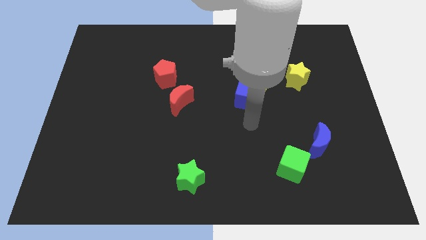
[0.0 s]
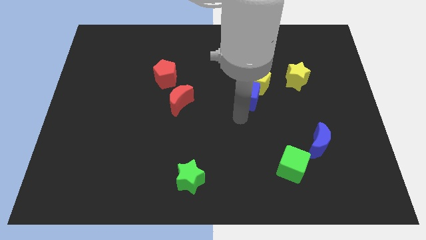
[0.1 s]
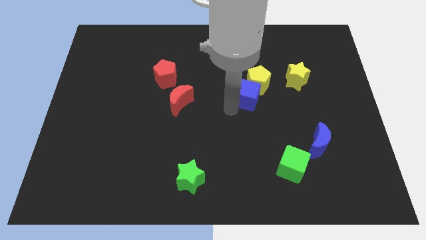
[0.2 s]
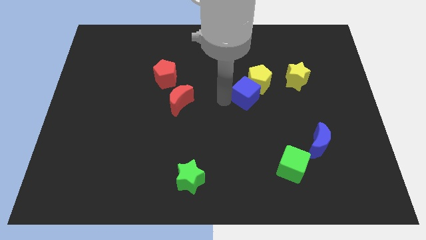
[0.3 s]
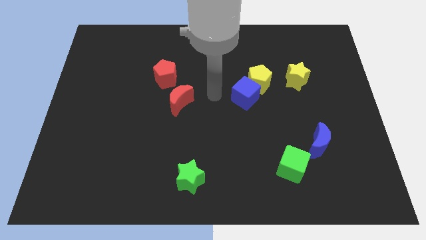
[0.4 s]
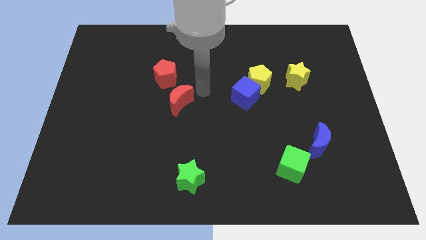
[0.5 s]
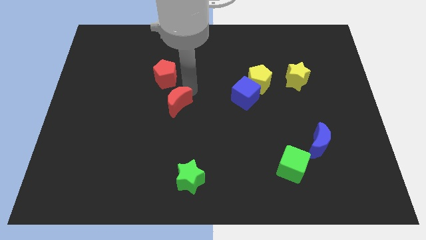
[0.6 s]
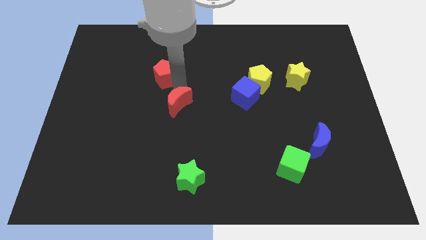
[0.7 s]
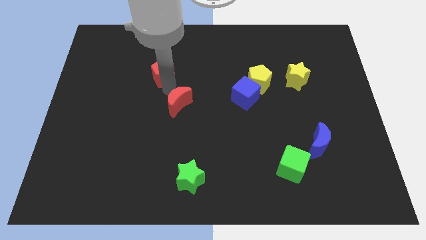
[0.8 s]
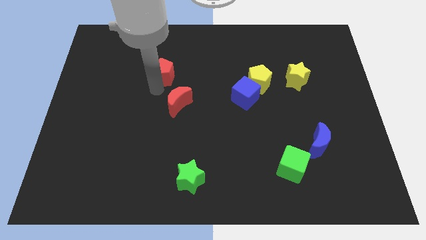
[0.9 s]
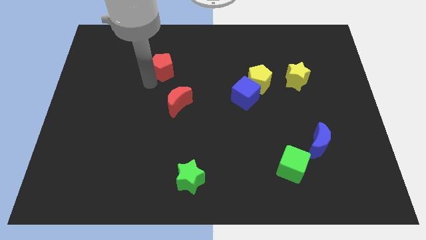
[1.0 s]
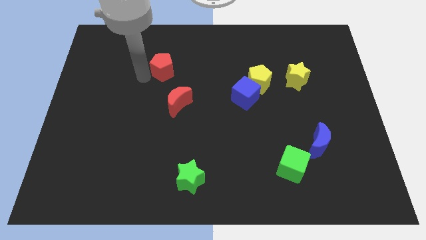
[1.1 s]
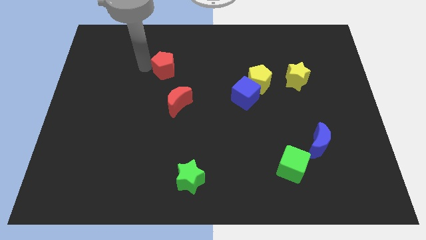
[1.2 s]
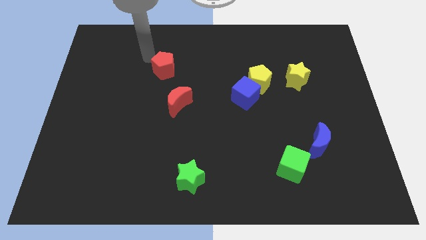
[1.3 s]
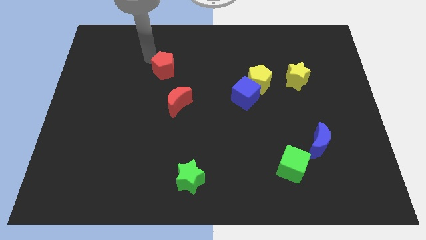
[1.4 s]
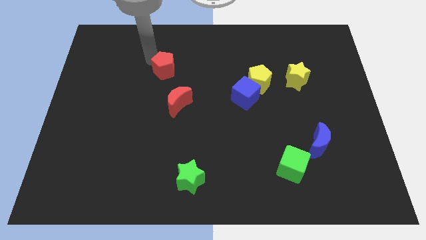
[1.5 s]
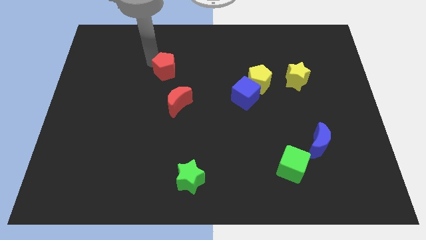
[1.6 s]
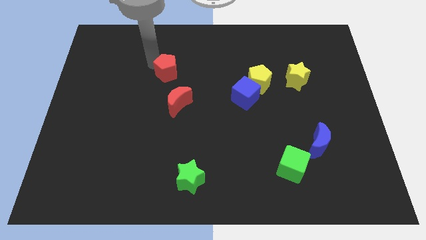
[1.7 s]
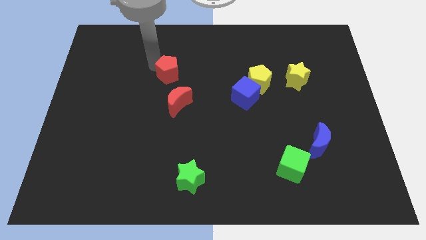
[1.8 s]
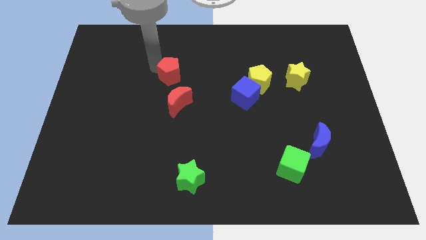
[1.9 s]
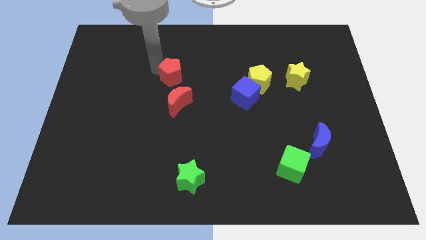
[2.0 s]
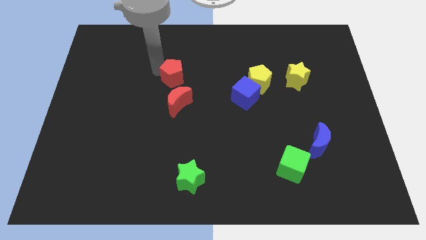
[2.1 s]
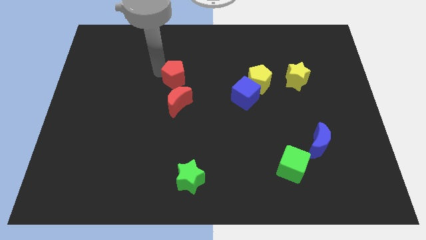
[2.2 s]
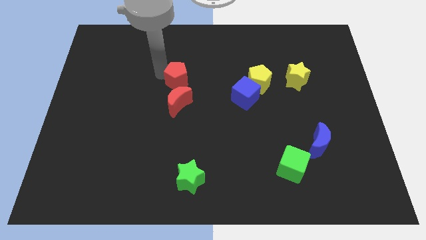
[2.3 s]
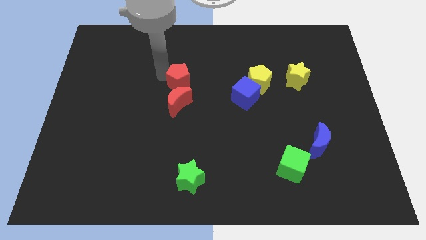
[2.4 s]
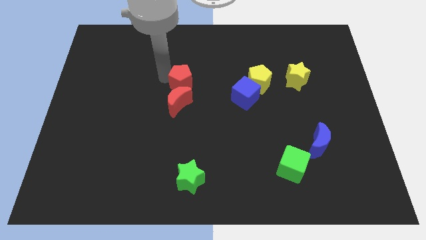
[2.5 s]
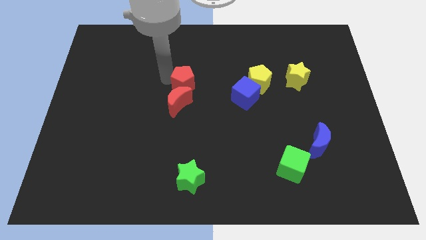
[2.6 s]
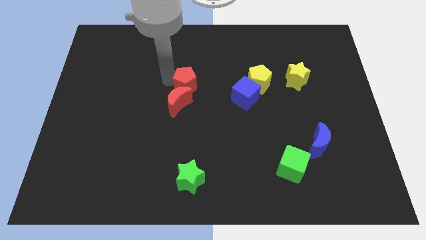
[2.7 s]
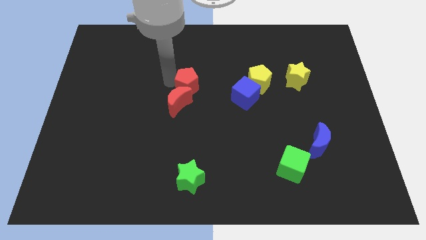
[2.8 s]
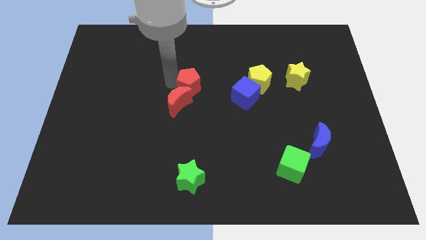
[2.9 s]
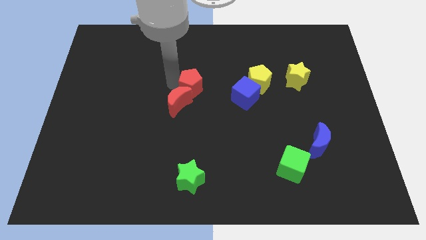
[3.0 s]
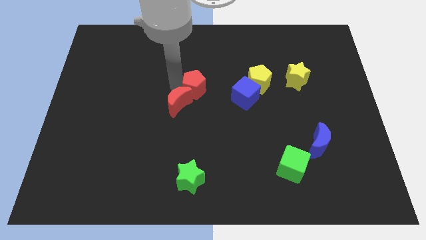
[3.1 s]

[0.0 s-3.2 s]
slide the red pentagon a little diagonally down and to the right

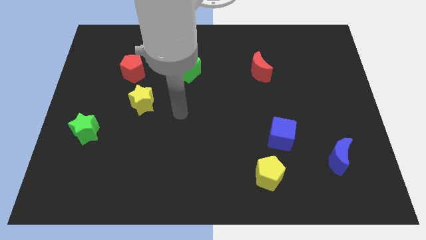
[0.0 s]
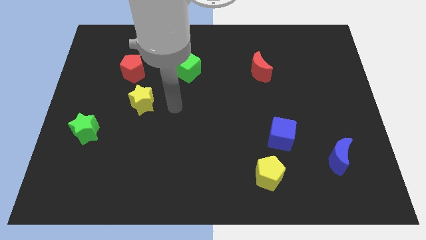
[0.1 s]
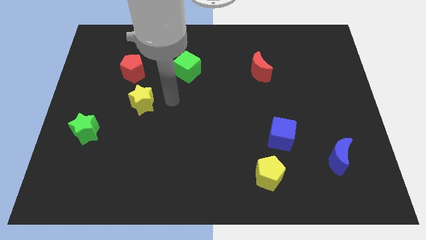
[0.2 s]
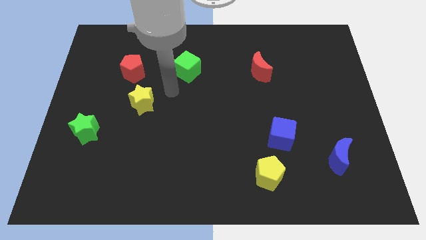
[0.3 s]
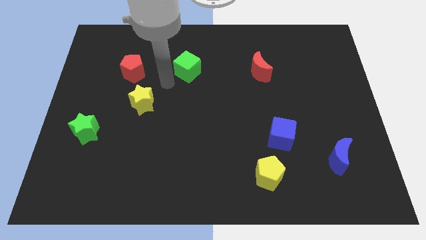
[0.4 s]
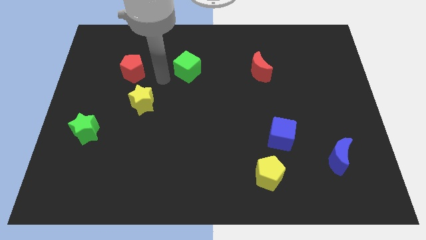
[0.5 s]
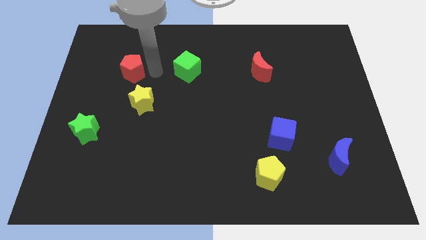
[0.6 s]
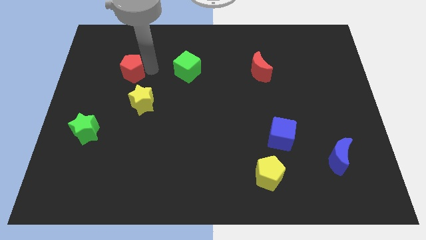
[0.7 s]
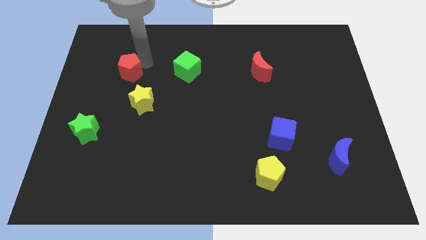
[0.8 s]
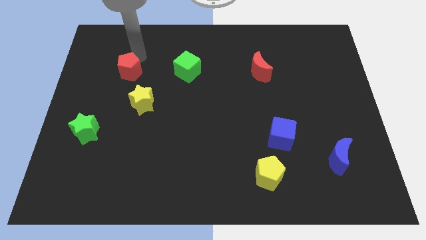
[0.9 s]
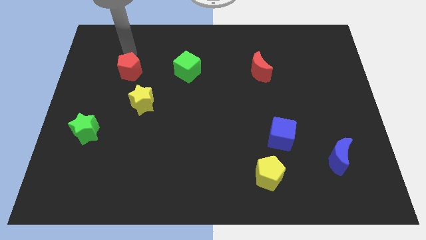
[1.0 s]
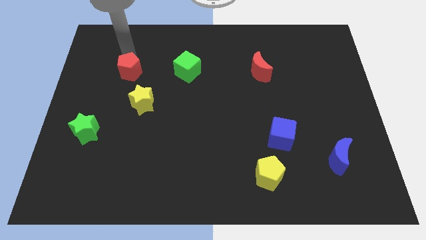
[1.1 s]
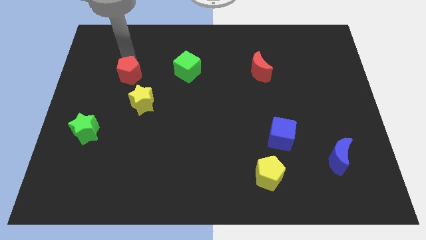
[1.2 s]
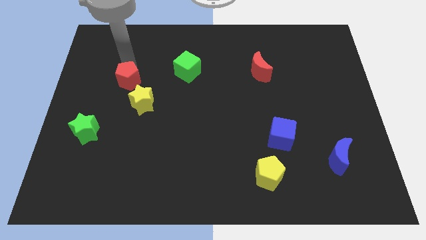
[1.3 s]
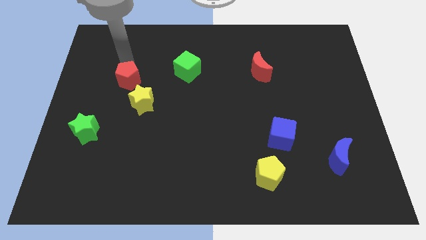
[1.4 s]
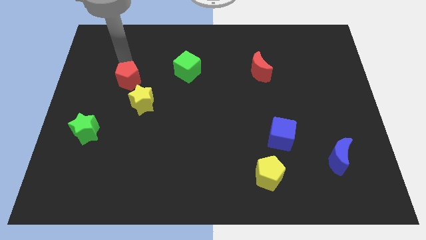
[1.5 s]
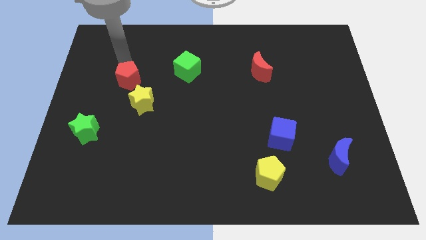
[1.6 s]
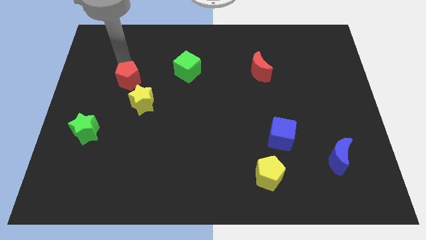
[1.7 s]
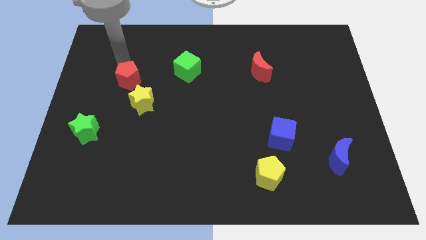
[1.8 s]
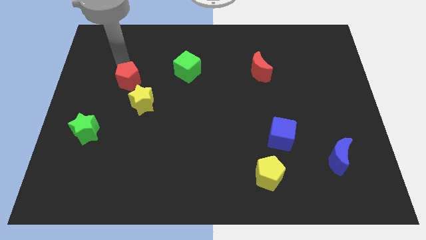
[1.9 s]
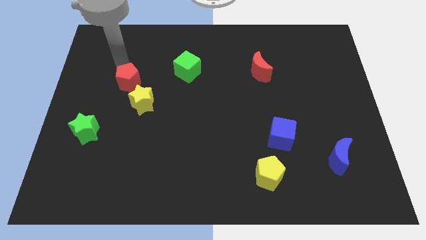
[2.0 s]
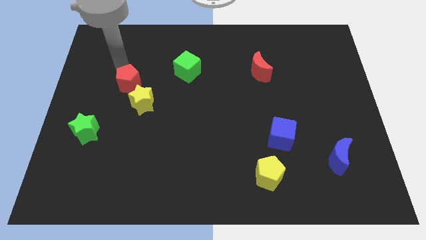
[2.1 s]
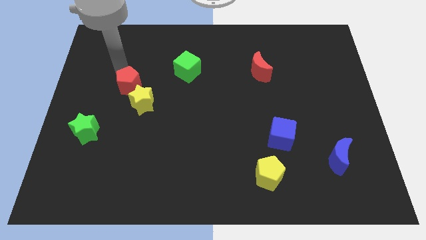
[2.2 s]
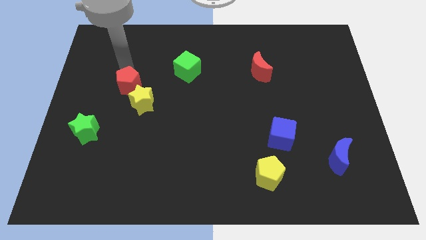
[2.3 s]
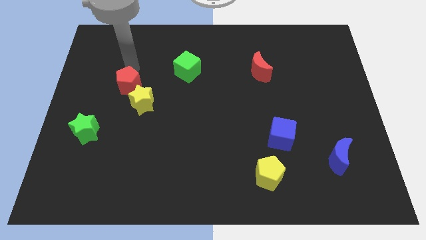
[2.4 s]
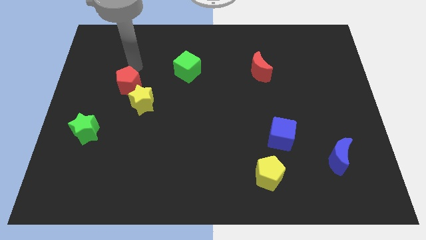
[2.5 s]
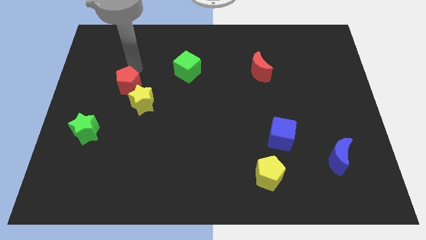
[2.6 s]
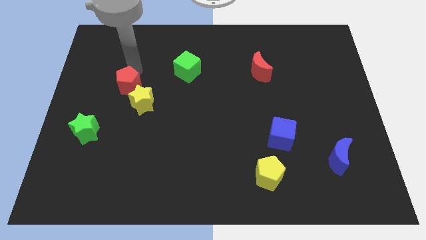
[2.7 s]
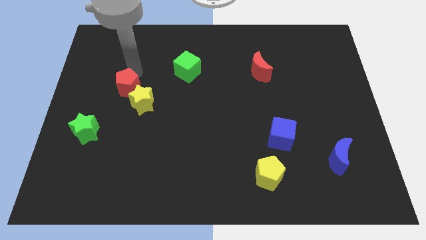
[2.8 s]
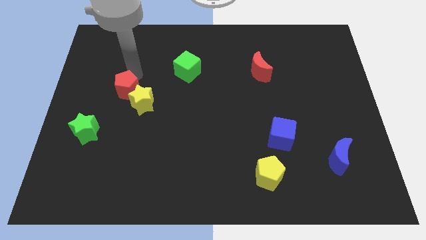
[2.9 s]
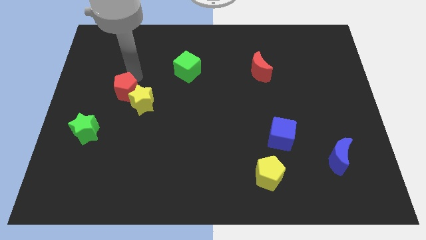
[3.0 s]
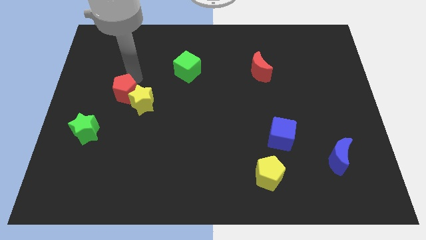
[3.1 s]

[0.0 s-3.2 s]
push the red pentagon down slightly

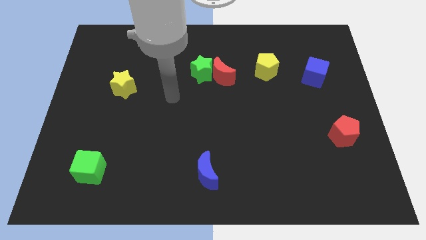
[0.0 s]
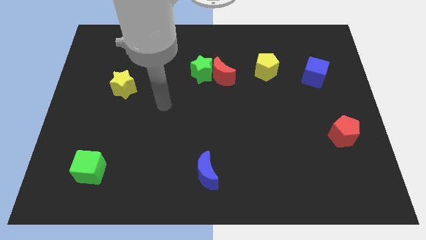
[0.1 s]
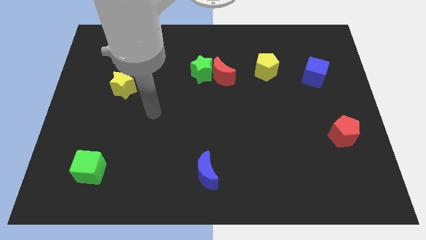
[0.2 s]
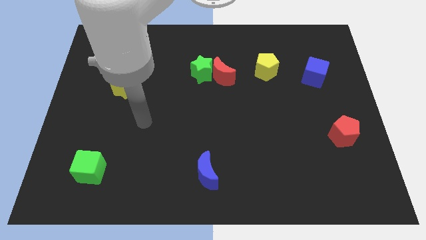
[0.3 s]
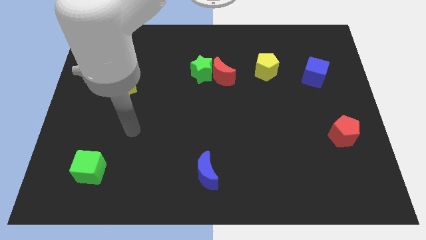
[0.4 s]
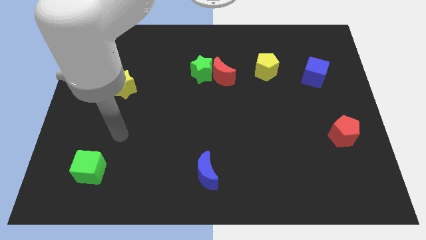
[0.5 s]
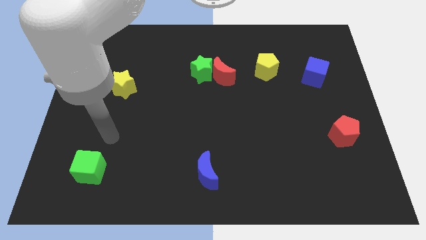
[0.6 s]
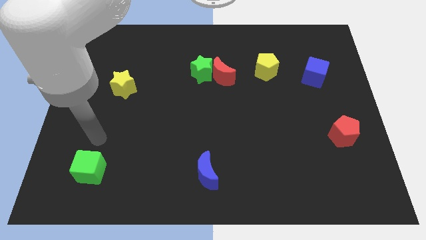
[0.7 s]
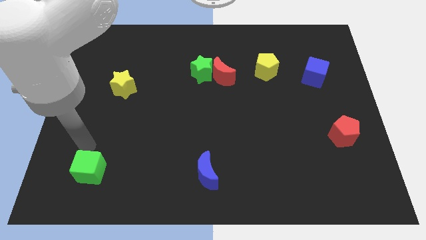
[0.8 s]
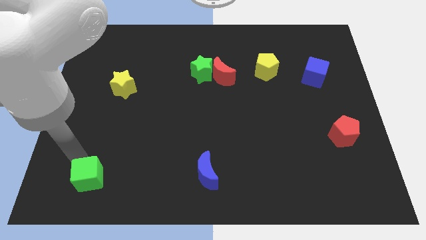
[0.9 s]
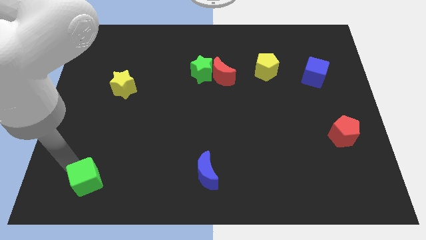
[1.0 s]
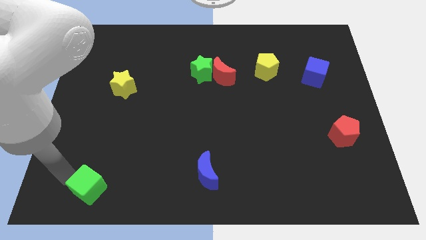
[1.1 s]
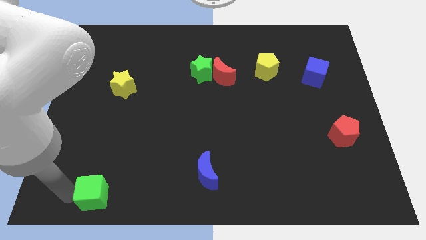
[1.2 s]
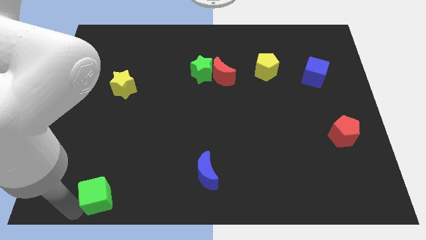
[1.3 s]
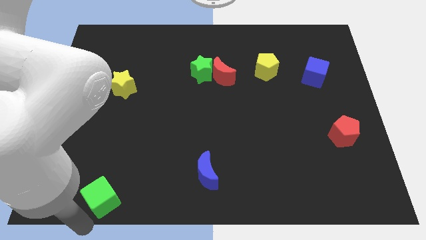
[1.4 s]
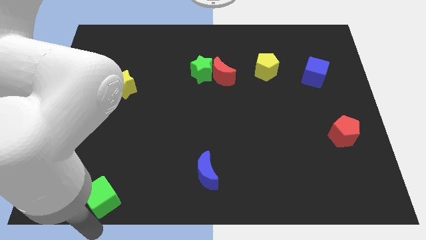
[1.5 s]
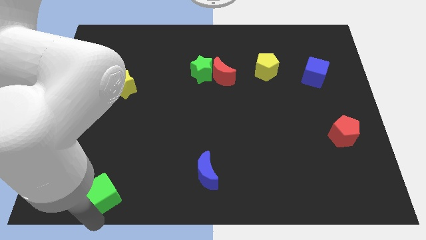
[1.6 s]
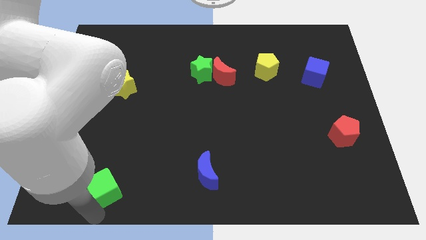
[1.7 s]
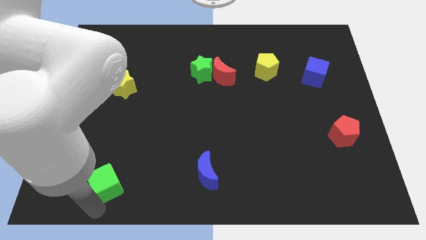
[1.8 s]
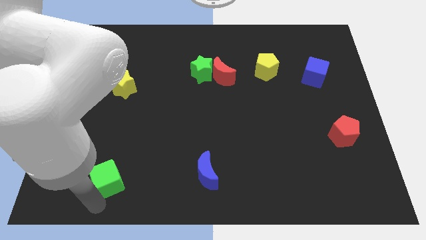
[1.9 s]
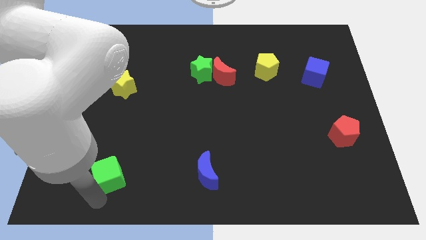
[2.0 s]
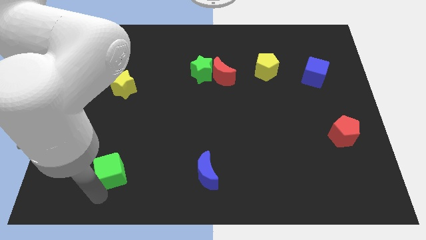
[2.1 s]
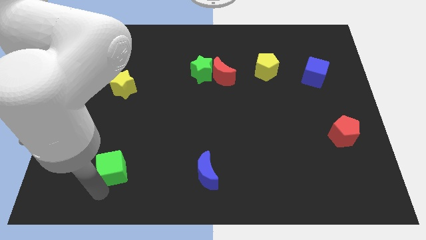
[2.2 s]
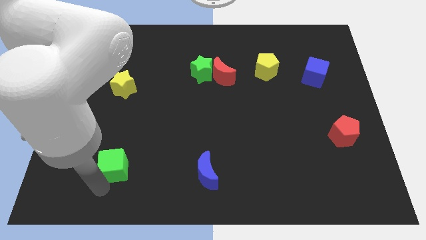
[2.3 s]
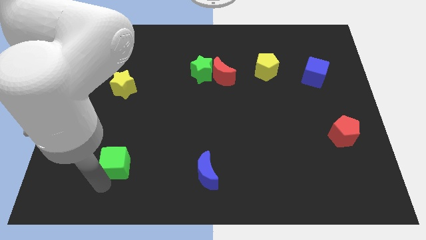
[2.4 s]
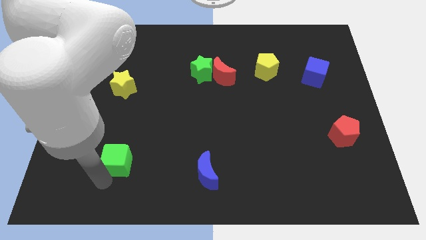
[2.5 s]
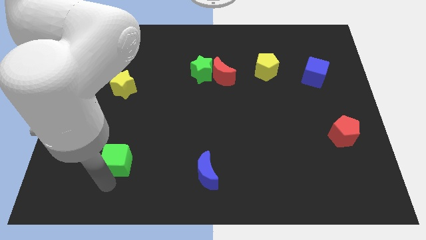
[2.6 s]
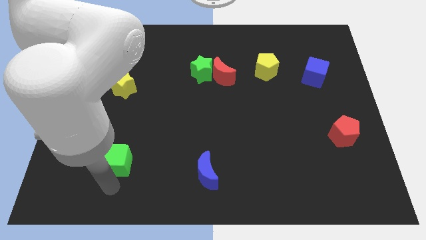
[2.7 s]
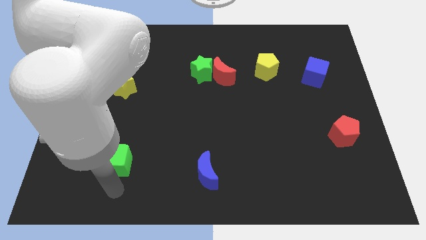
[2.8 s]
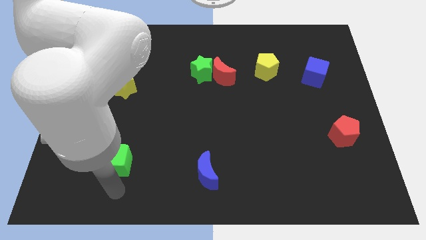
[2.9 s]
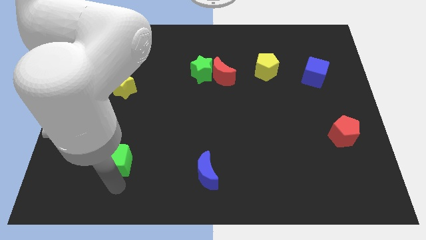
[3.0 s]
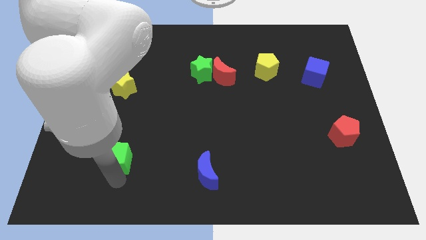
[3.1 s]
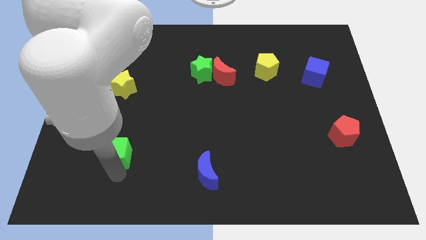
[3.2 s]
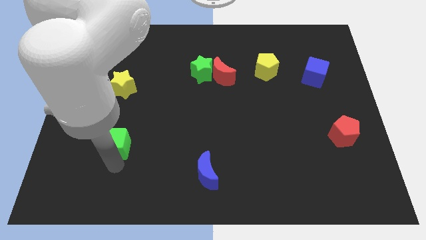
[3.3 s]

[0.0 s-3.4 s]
slightly slide the green cube up and to the right diagonally
